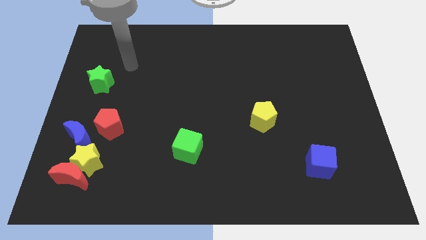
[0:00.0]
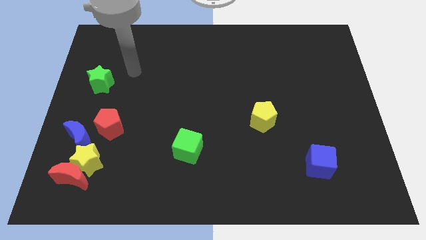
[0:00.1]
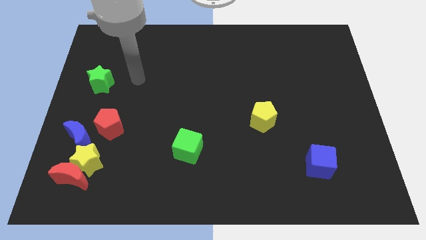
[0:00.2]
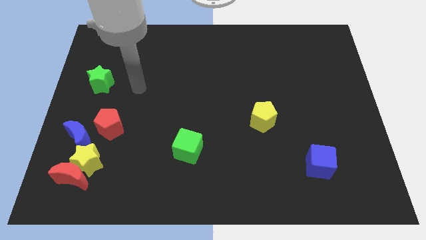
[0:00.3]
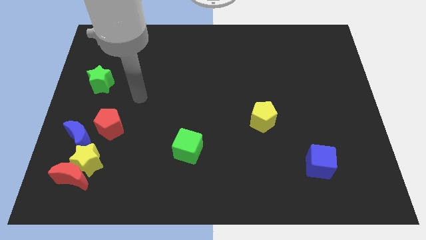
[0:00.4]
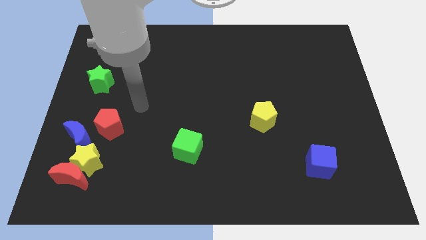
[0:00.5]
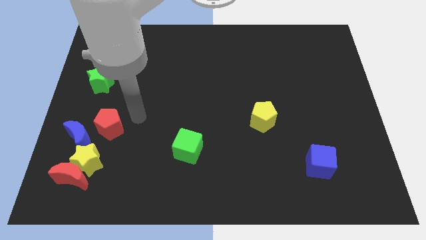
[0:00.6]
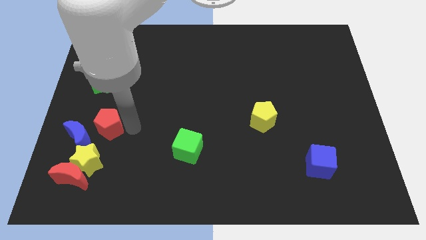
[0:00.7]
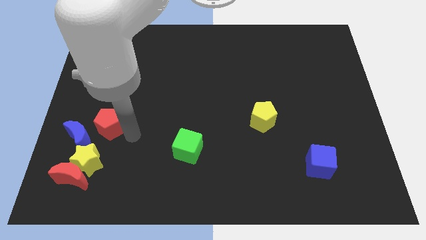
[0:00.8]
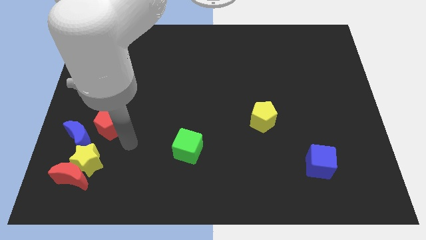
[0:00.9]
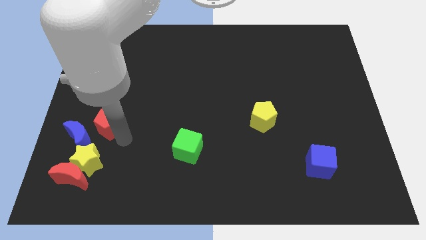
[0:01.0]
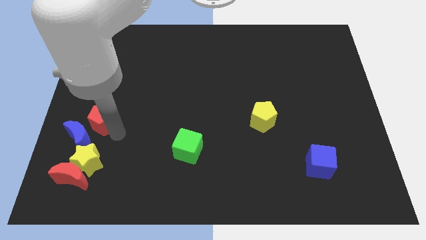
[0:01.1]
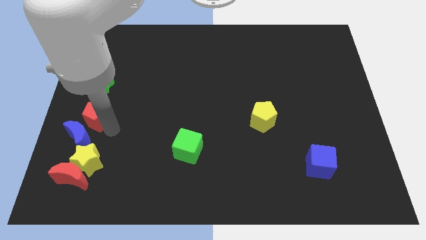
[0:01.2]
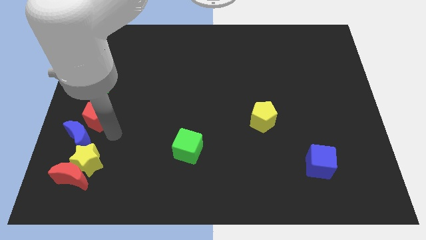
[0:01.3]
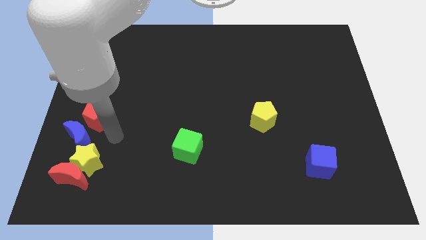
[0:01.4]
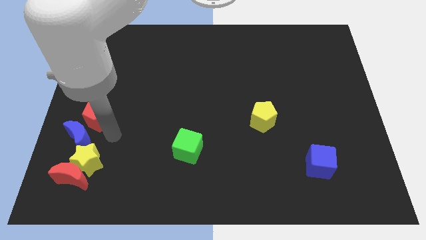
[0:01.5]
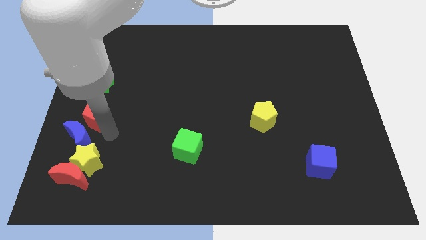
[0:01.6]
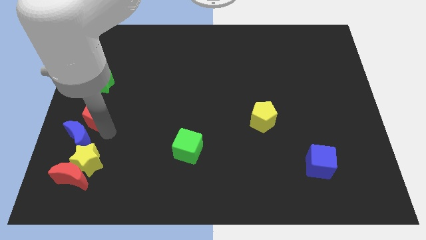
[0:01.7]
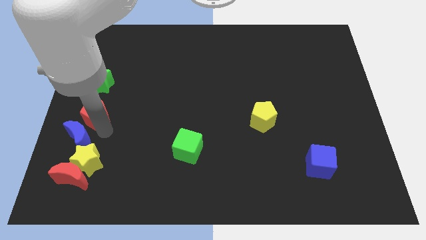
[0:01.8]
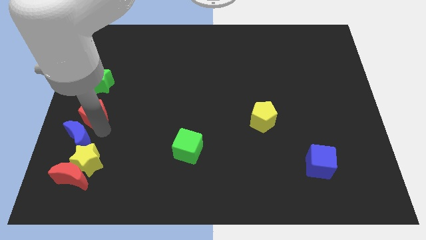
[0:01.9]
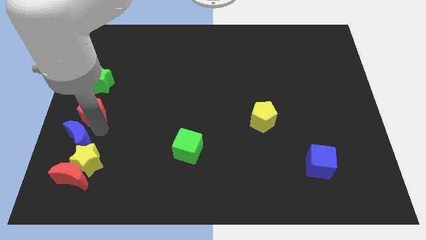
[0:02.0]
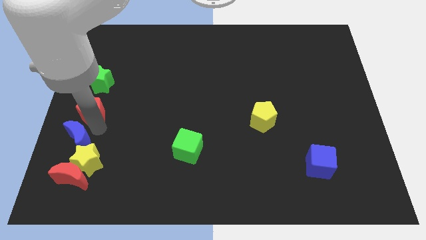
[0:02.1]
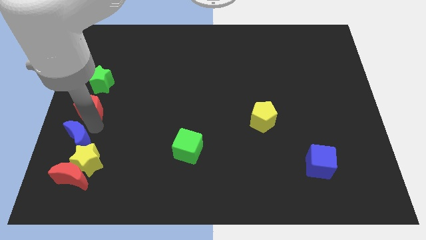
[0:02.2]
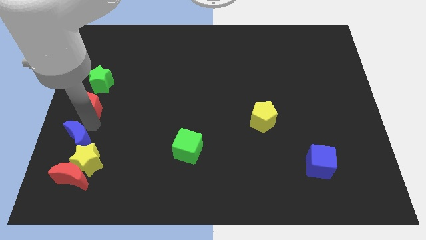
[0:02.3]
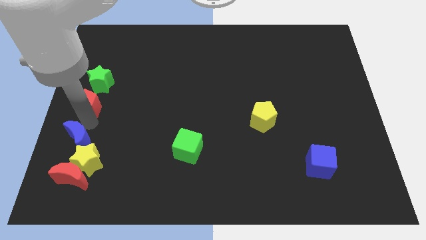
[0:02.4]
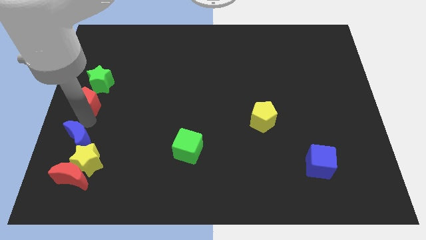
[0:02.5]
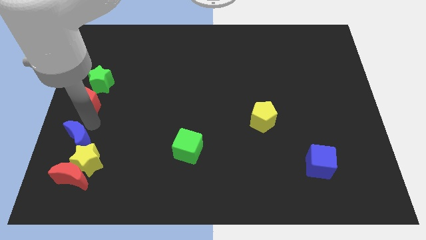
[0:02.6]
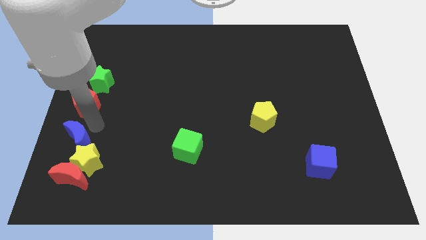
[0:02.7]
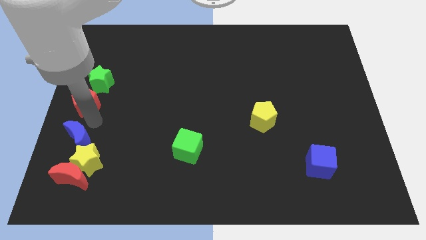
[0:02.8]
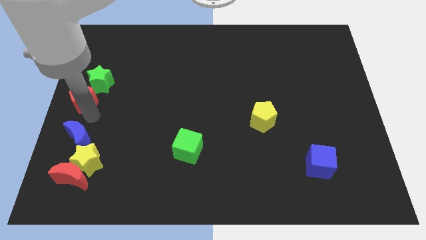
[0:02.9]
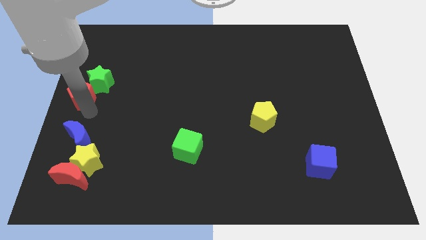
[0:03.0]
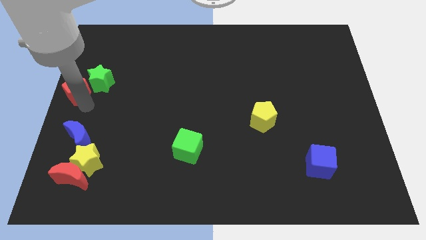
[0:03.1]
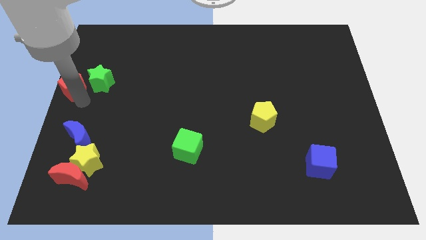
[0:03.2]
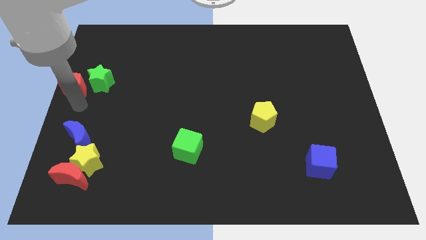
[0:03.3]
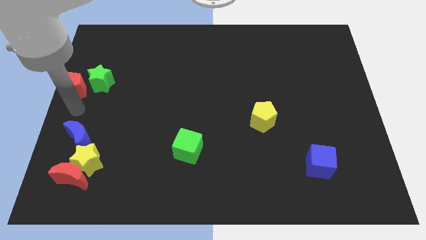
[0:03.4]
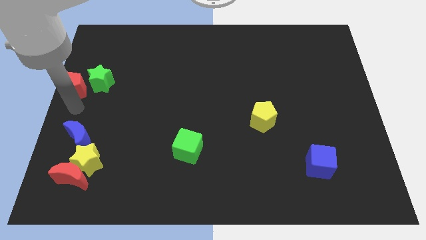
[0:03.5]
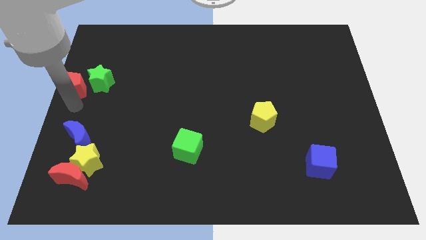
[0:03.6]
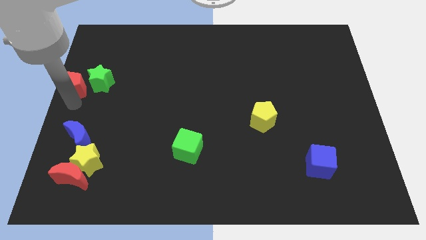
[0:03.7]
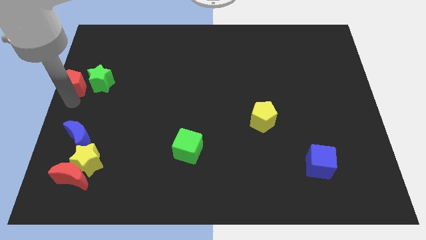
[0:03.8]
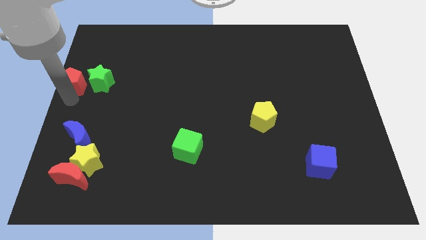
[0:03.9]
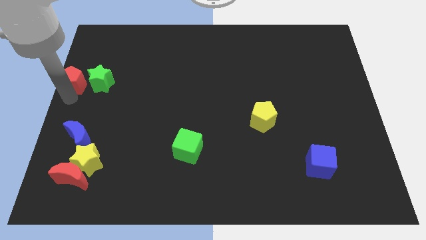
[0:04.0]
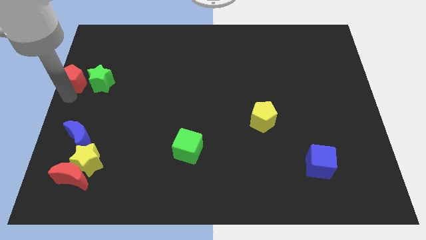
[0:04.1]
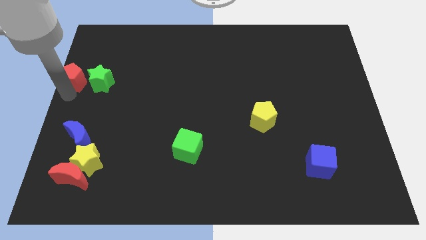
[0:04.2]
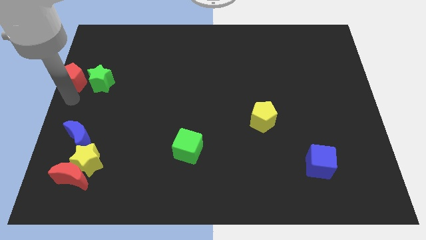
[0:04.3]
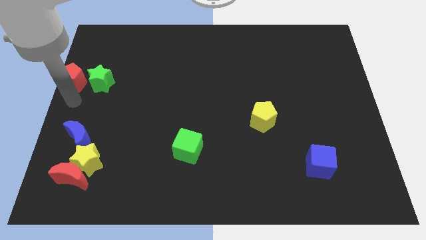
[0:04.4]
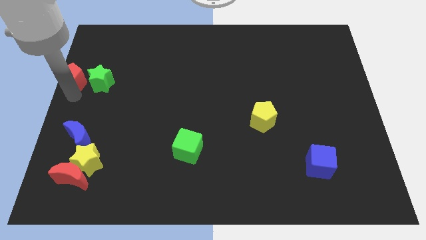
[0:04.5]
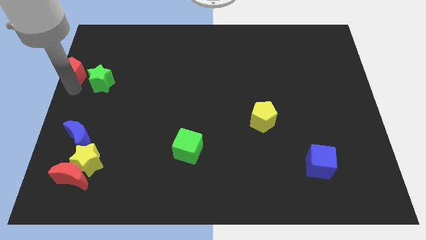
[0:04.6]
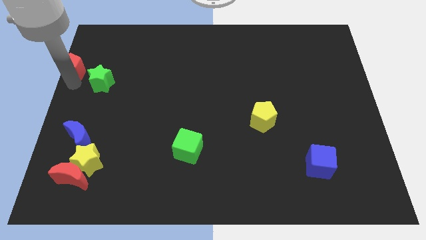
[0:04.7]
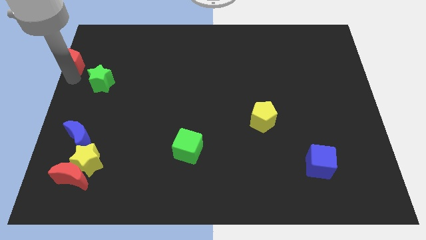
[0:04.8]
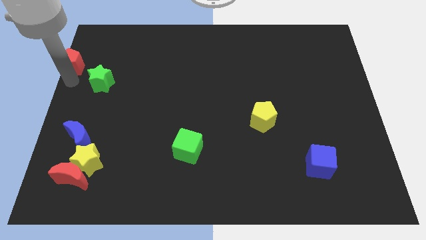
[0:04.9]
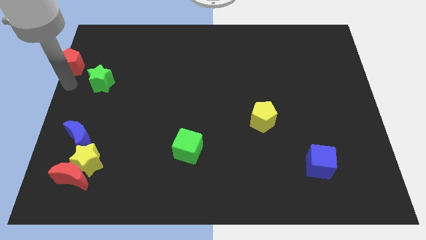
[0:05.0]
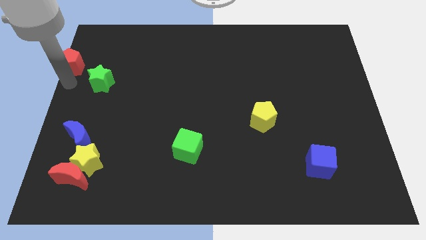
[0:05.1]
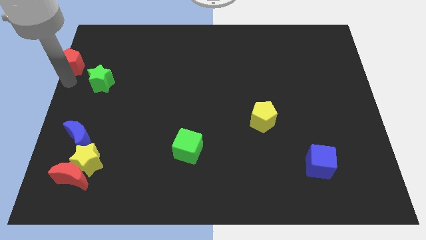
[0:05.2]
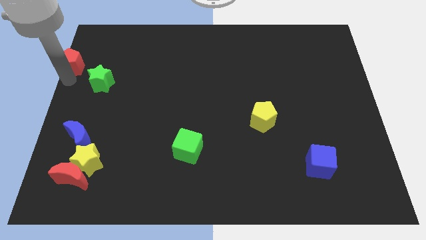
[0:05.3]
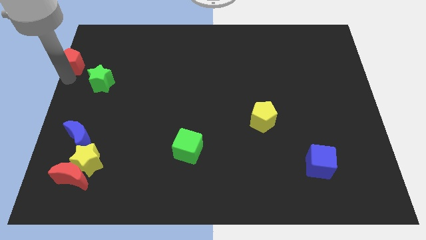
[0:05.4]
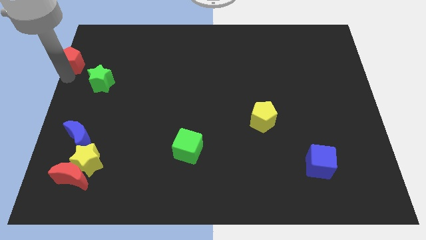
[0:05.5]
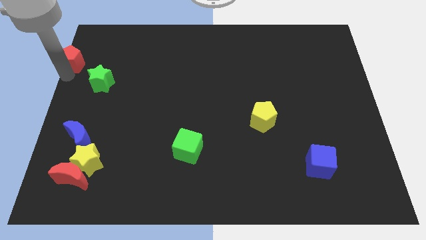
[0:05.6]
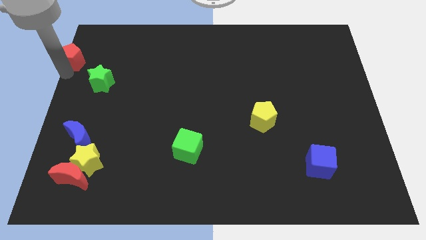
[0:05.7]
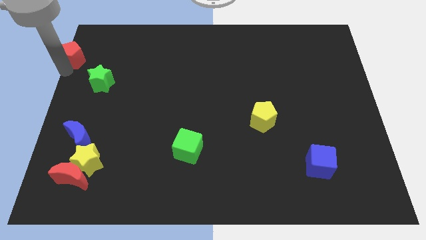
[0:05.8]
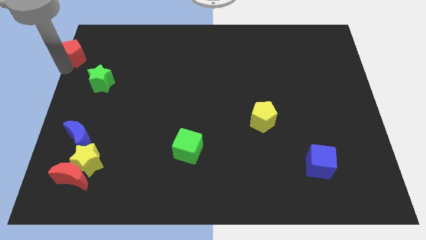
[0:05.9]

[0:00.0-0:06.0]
put the red pentagon to the top left of the board
